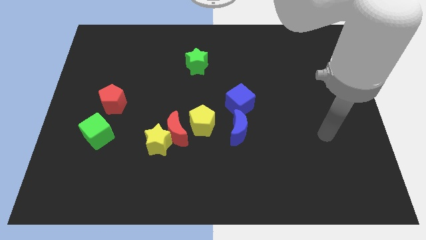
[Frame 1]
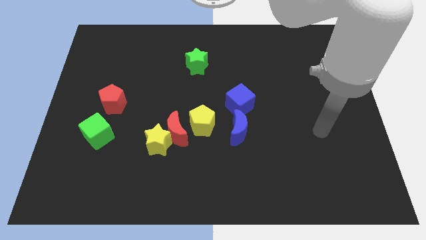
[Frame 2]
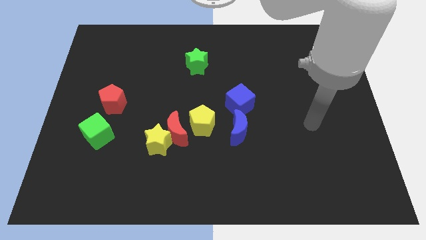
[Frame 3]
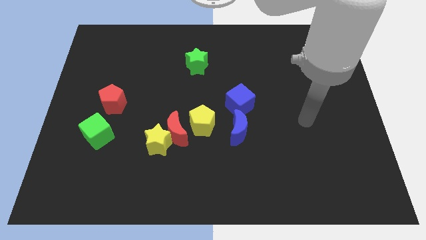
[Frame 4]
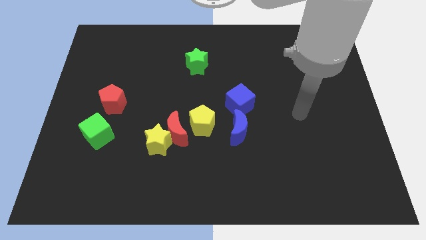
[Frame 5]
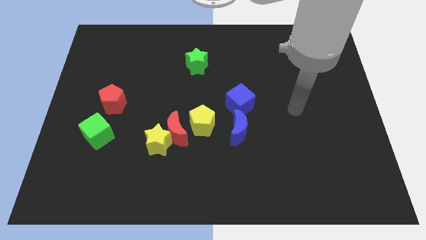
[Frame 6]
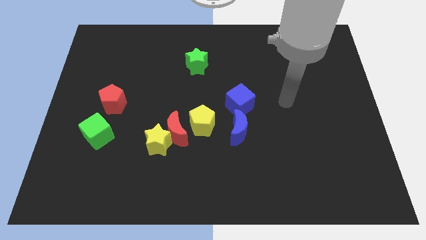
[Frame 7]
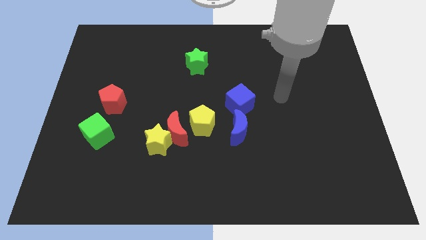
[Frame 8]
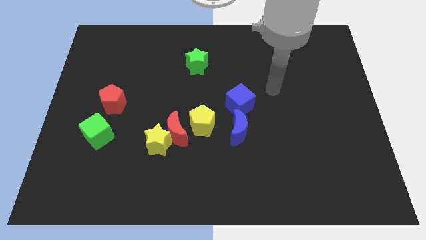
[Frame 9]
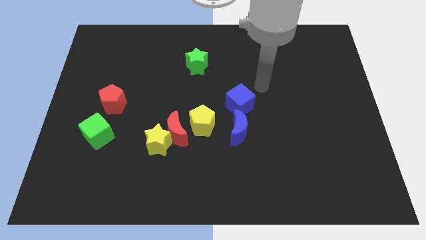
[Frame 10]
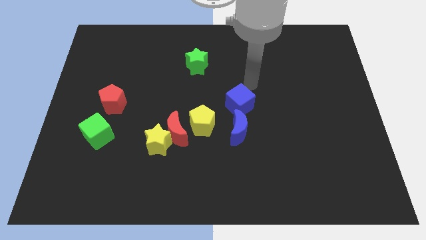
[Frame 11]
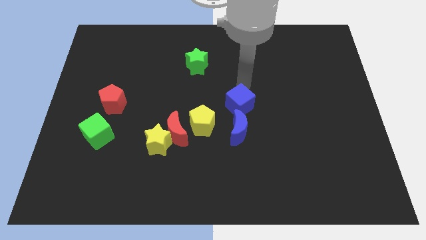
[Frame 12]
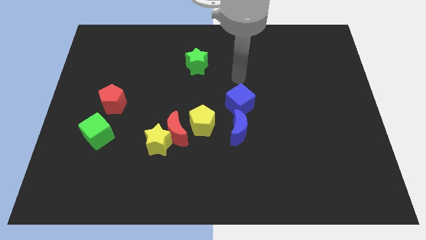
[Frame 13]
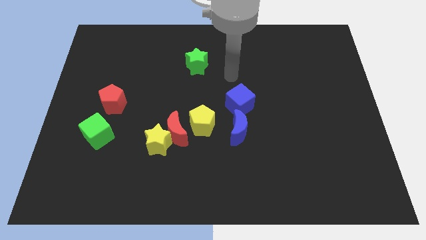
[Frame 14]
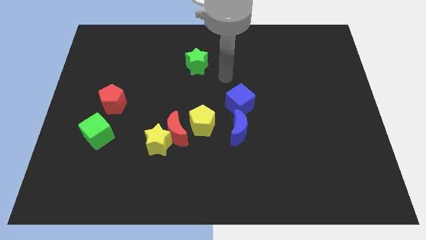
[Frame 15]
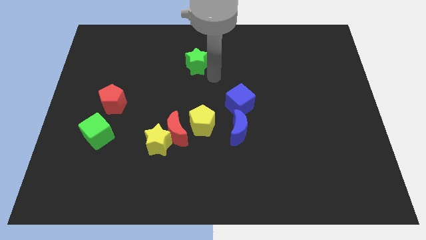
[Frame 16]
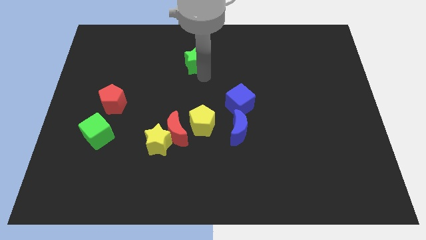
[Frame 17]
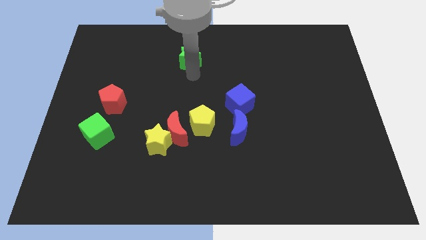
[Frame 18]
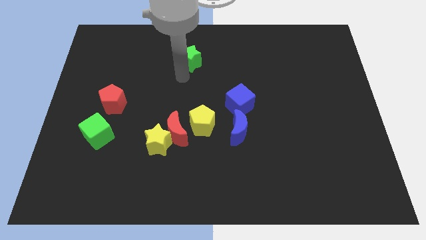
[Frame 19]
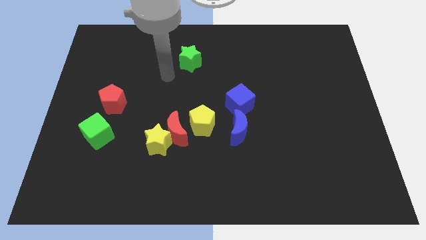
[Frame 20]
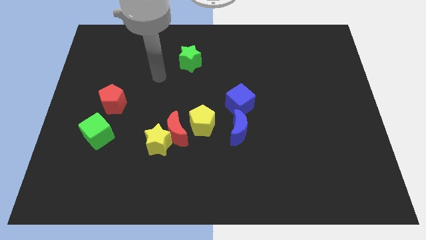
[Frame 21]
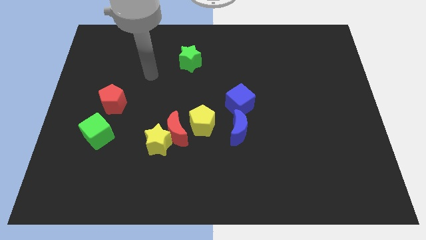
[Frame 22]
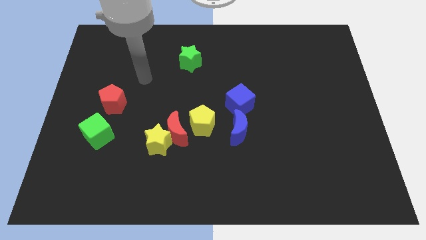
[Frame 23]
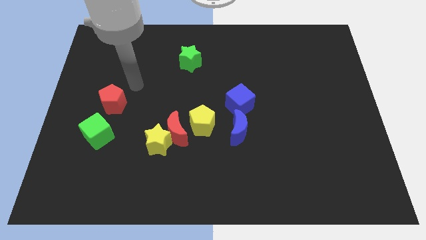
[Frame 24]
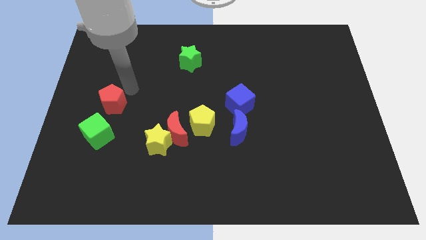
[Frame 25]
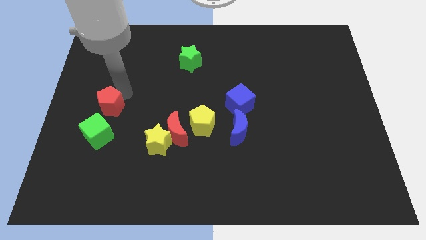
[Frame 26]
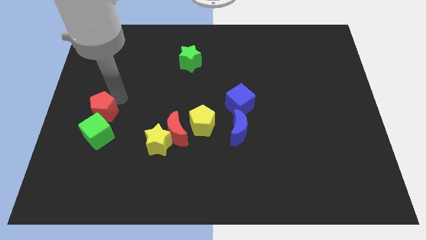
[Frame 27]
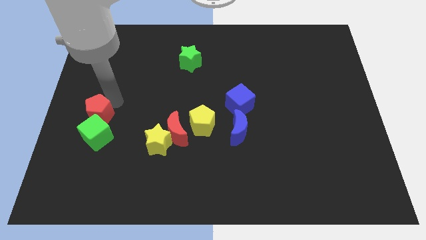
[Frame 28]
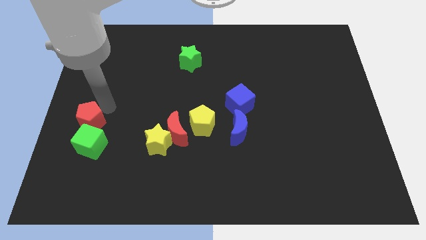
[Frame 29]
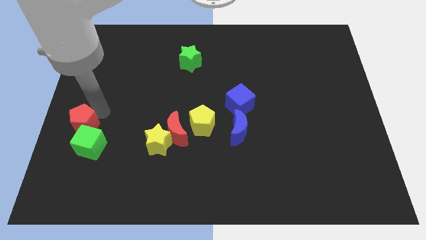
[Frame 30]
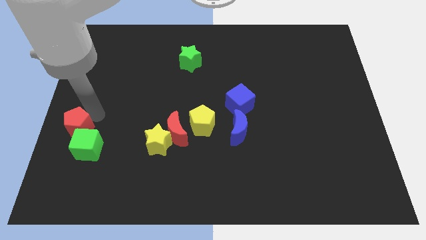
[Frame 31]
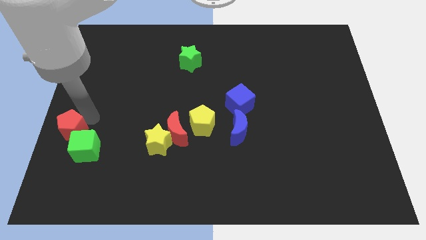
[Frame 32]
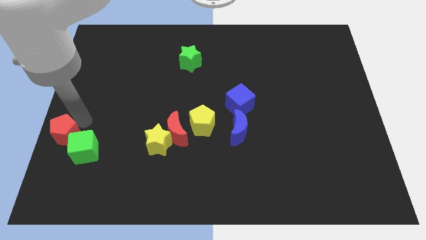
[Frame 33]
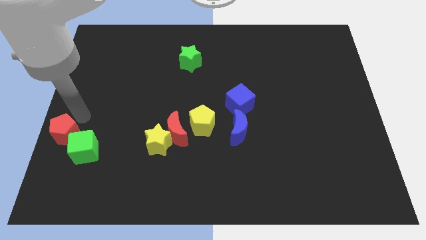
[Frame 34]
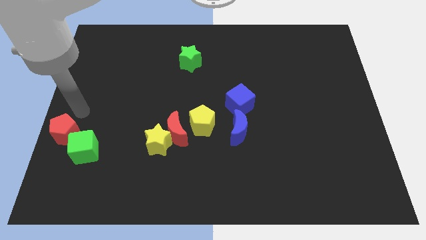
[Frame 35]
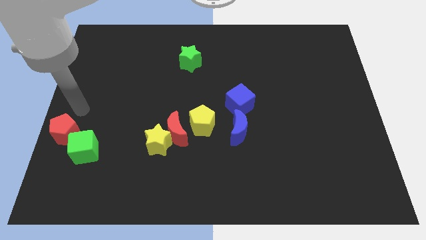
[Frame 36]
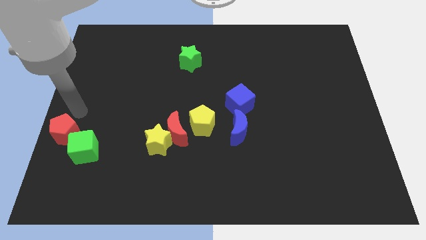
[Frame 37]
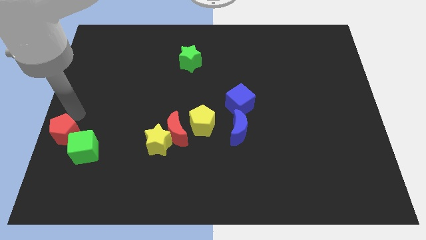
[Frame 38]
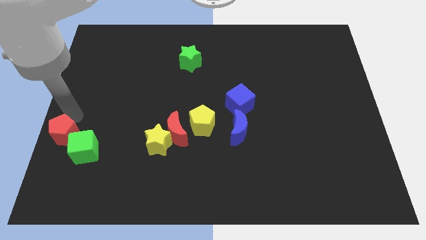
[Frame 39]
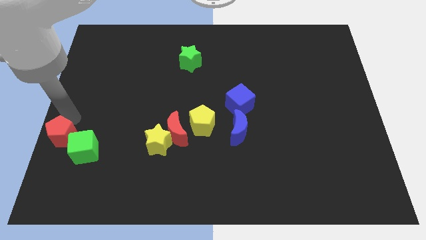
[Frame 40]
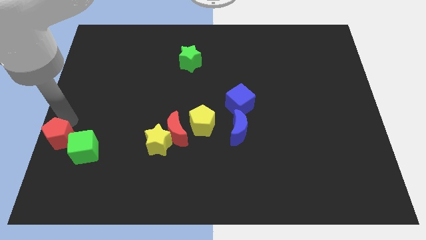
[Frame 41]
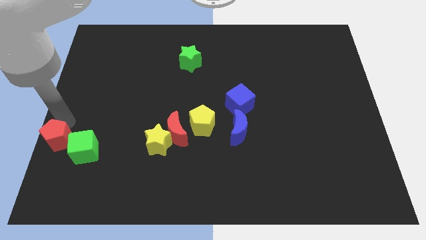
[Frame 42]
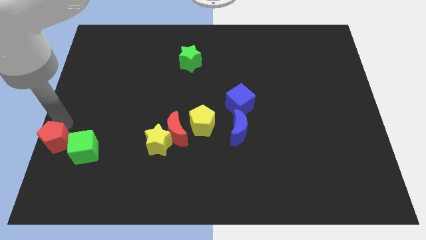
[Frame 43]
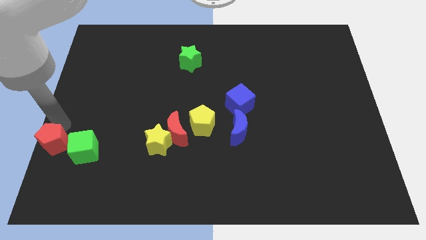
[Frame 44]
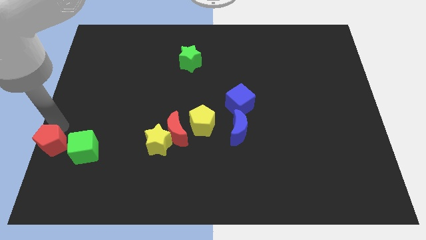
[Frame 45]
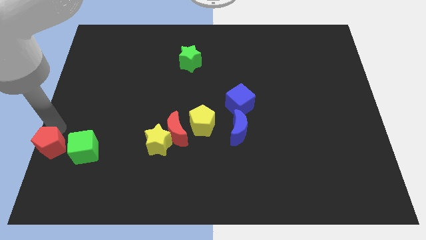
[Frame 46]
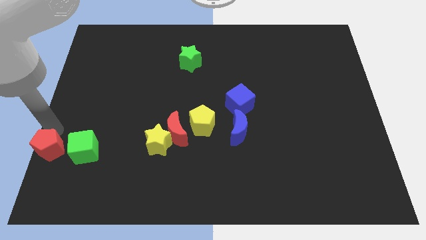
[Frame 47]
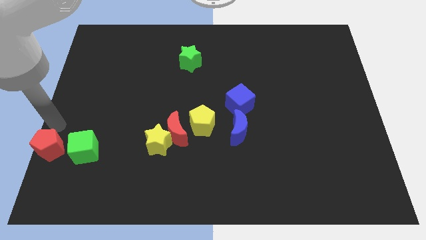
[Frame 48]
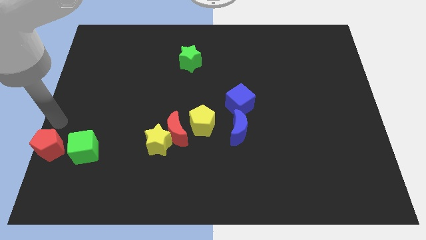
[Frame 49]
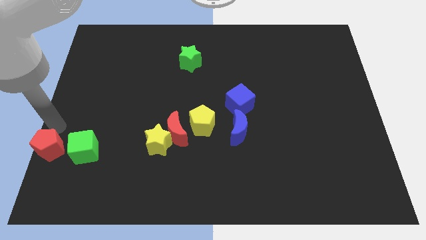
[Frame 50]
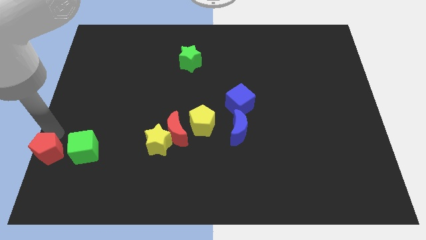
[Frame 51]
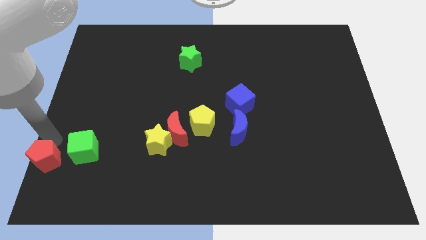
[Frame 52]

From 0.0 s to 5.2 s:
slide the red pentagon to the bottom left of the board

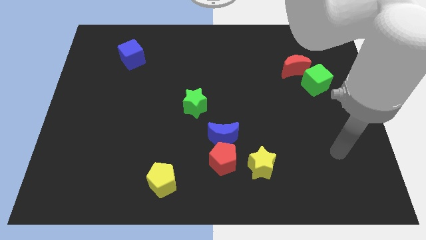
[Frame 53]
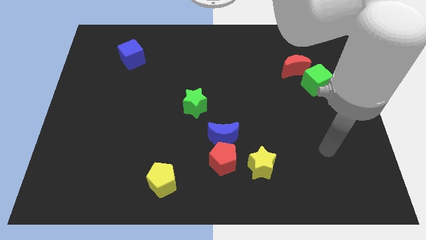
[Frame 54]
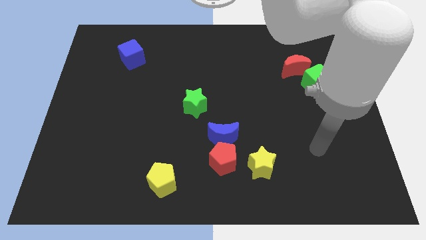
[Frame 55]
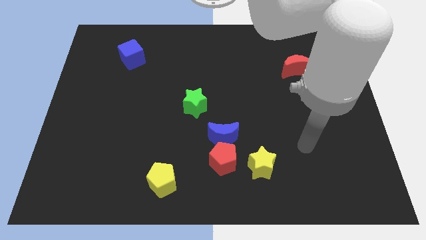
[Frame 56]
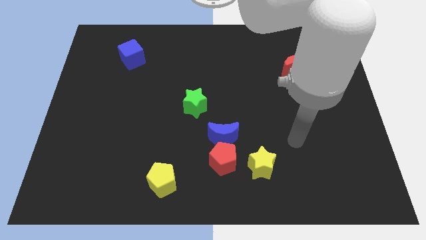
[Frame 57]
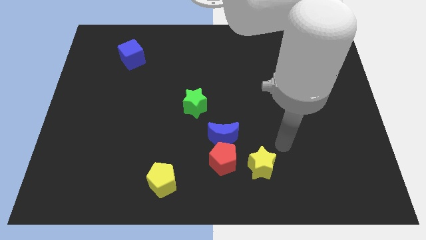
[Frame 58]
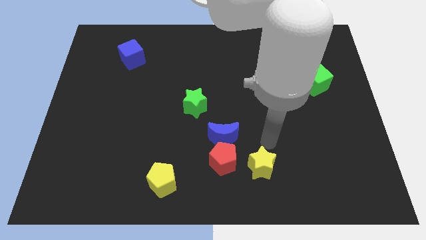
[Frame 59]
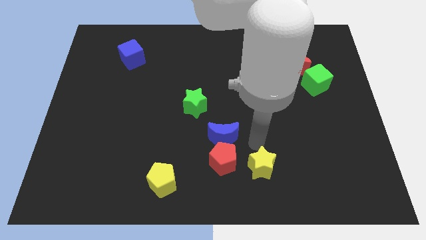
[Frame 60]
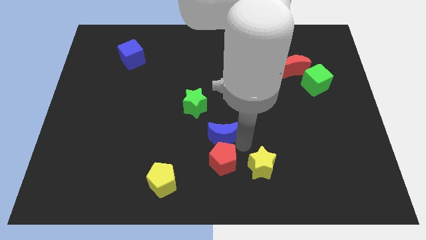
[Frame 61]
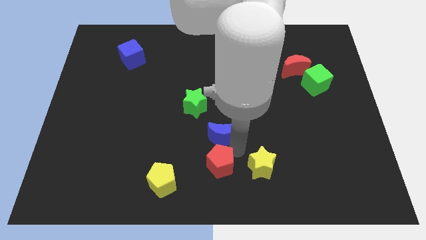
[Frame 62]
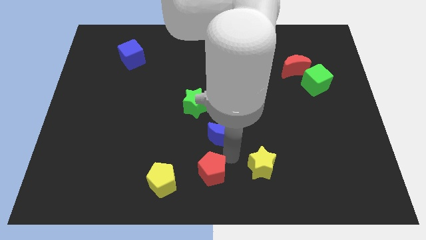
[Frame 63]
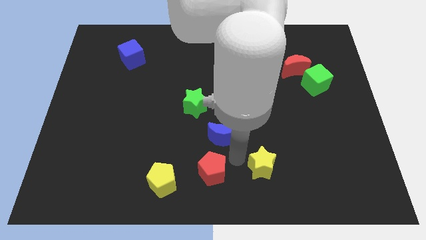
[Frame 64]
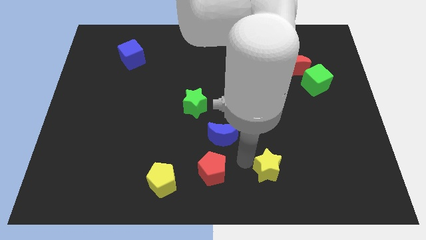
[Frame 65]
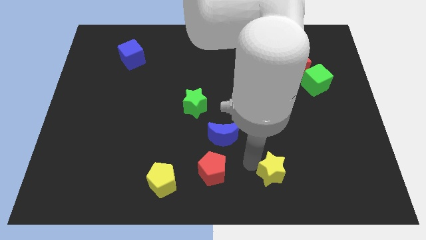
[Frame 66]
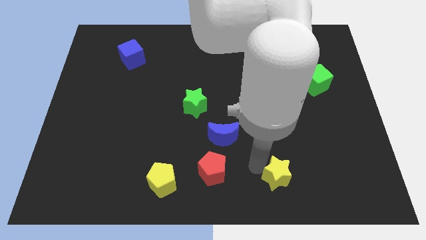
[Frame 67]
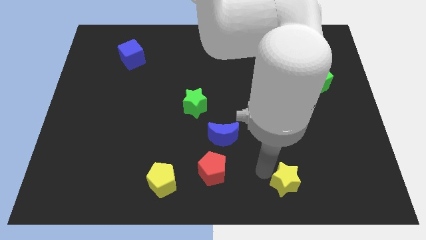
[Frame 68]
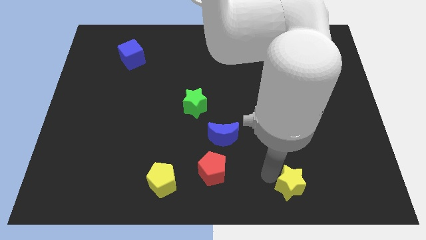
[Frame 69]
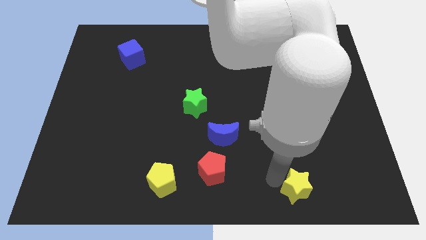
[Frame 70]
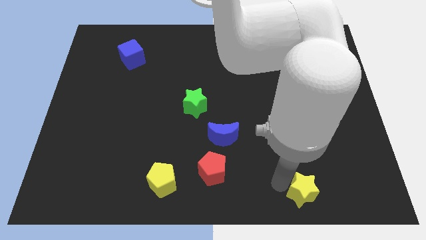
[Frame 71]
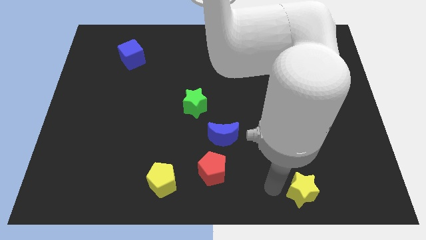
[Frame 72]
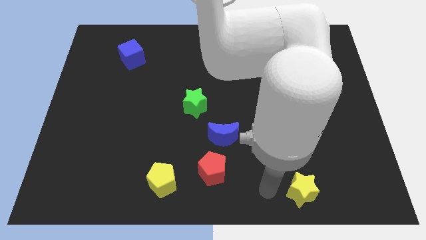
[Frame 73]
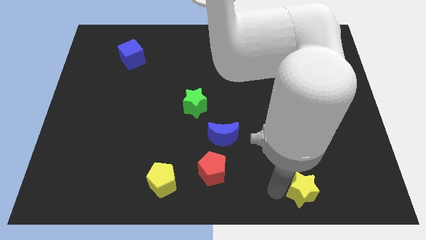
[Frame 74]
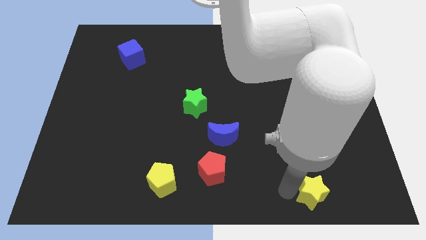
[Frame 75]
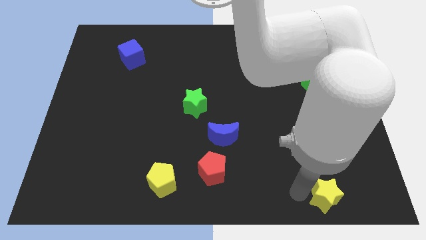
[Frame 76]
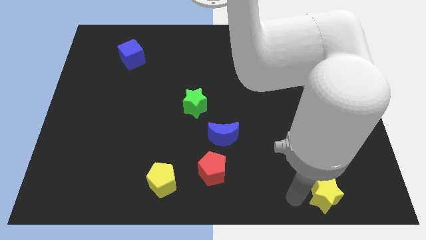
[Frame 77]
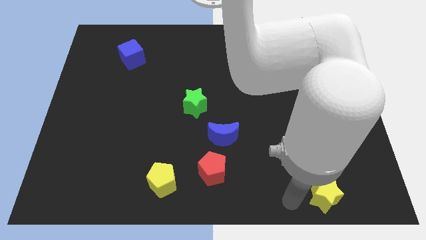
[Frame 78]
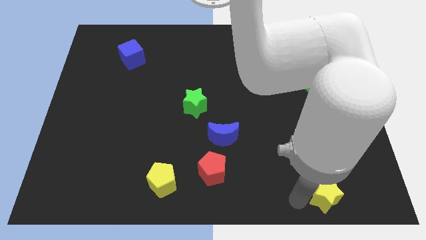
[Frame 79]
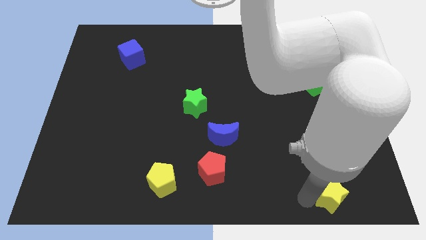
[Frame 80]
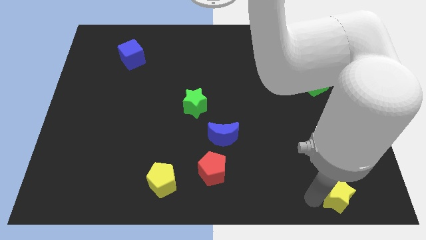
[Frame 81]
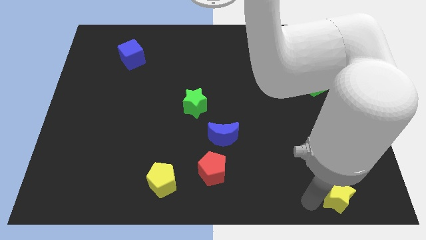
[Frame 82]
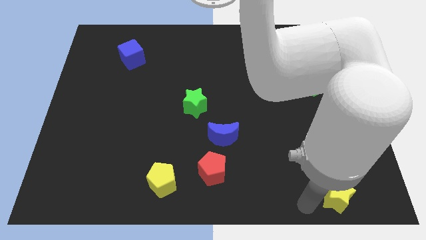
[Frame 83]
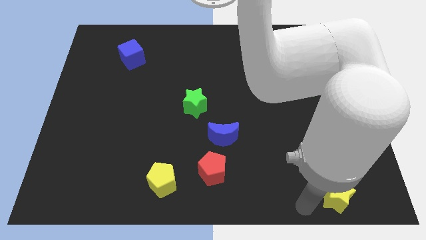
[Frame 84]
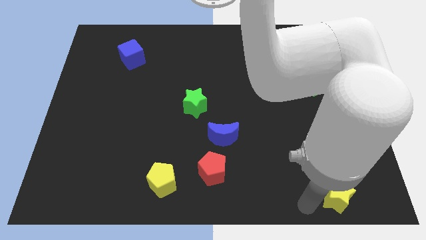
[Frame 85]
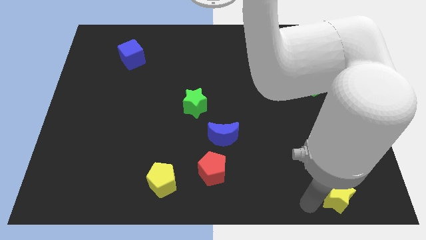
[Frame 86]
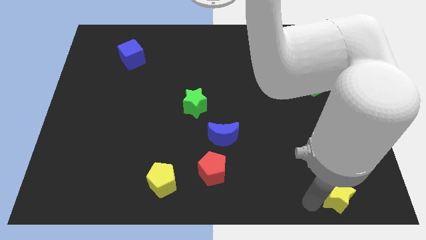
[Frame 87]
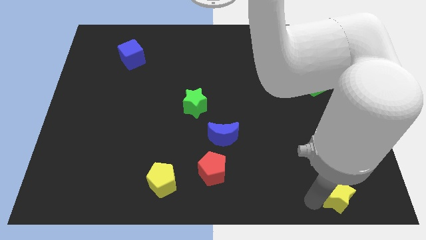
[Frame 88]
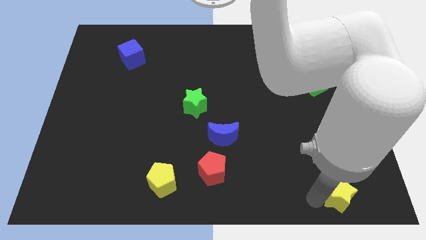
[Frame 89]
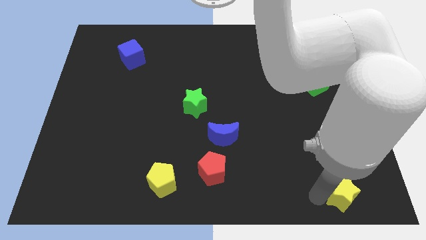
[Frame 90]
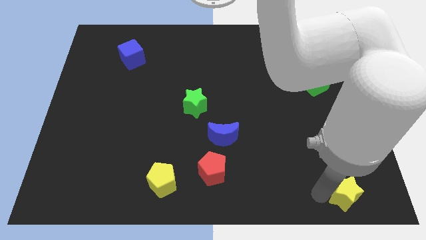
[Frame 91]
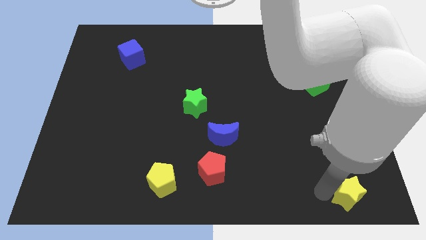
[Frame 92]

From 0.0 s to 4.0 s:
push the yellow star to the bottom right of the board
